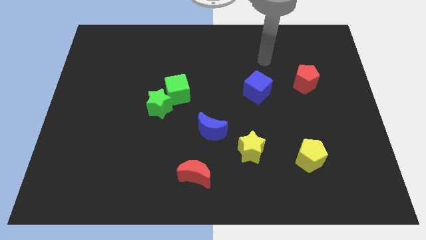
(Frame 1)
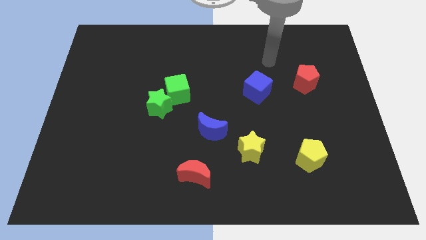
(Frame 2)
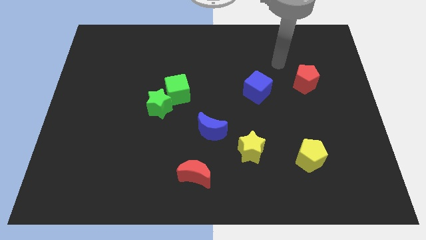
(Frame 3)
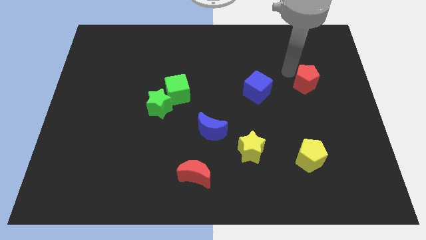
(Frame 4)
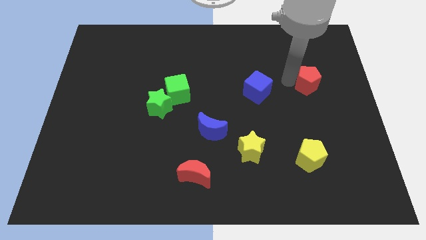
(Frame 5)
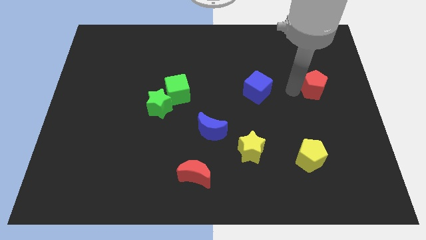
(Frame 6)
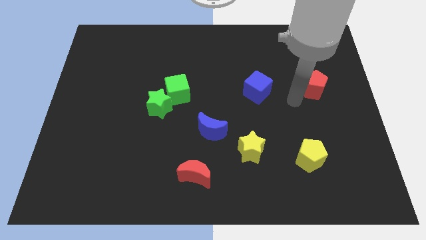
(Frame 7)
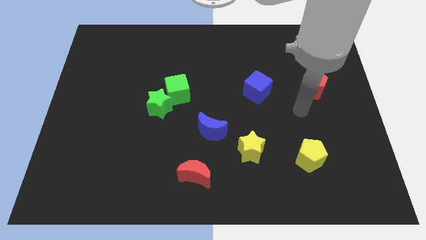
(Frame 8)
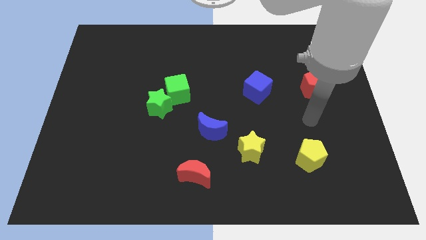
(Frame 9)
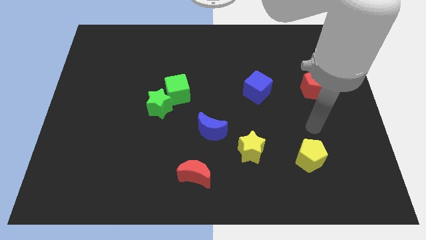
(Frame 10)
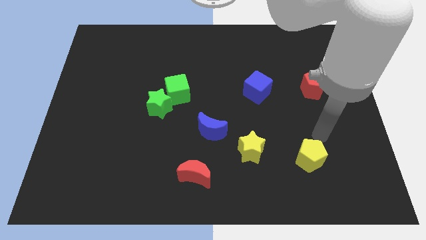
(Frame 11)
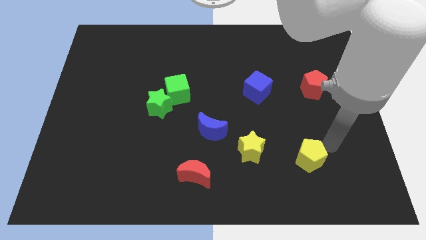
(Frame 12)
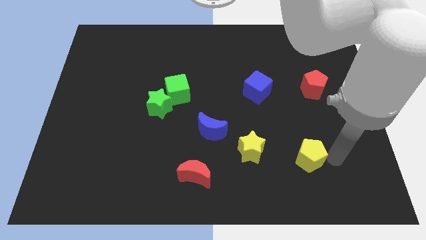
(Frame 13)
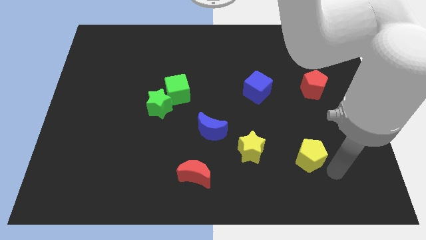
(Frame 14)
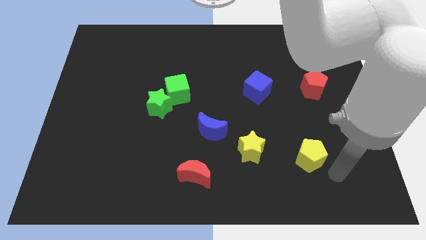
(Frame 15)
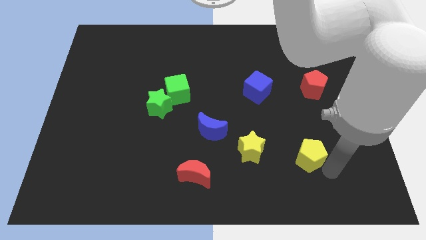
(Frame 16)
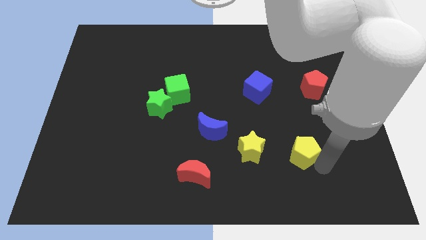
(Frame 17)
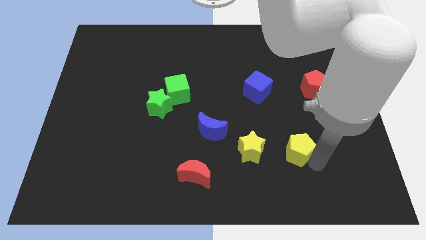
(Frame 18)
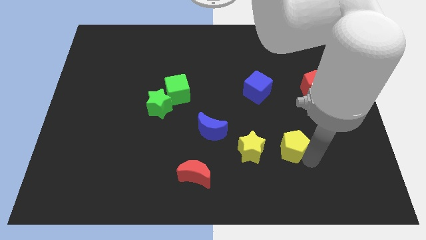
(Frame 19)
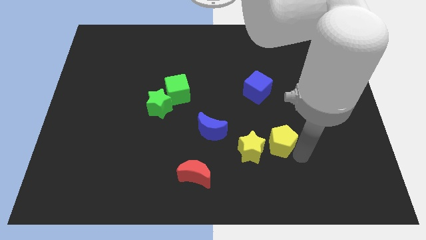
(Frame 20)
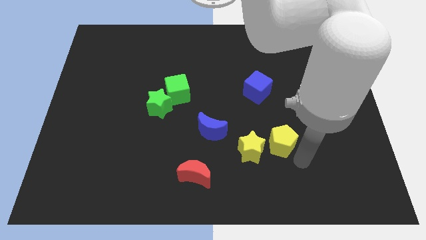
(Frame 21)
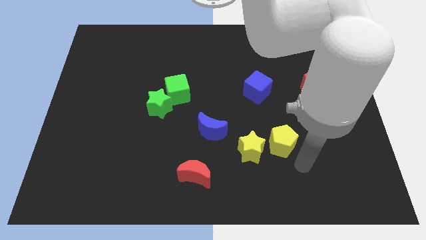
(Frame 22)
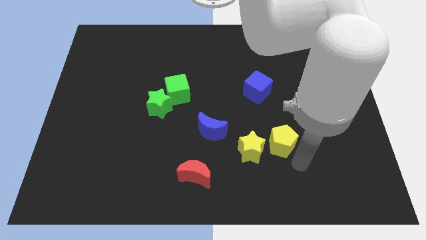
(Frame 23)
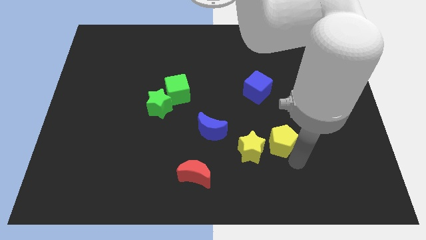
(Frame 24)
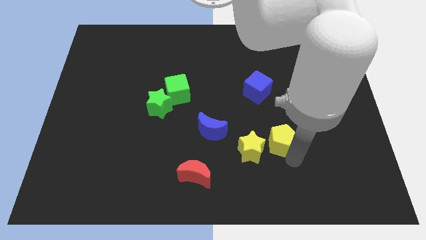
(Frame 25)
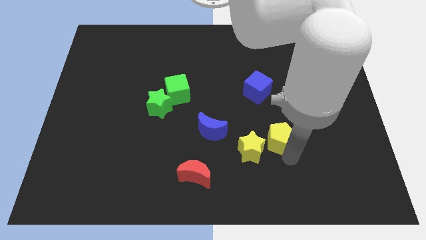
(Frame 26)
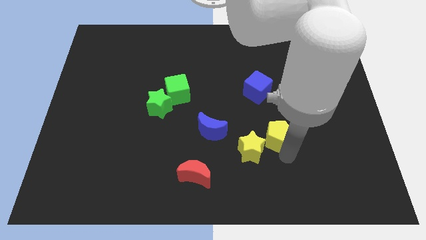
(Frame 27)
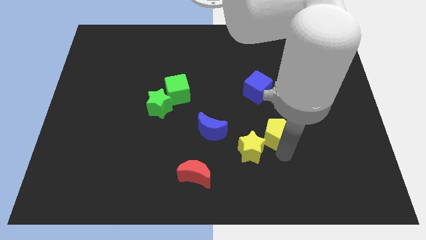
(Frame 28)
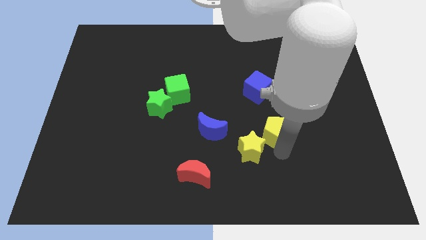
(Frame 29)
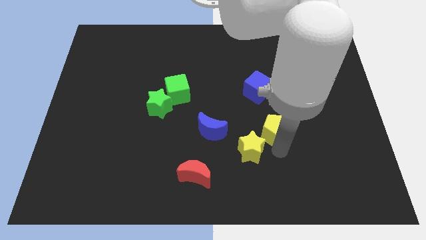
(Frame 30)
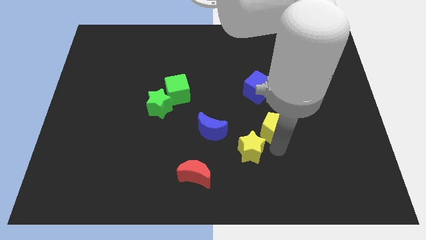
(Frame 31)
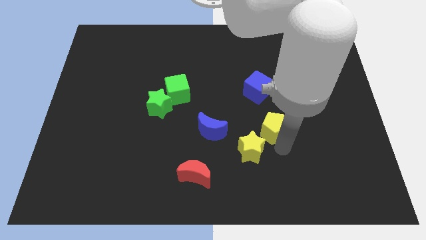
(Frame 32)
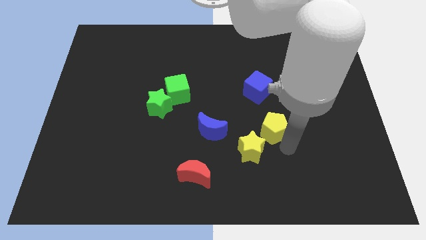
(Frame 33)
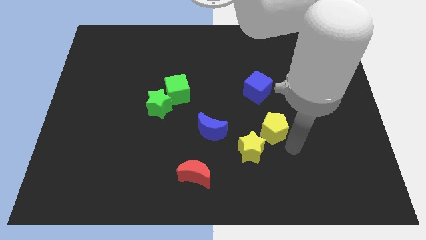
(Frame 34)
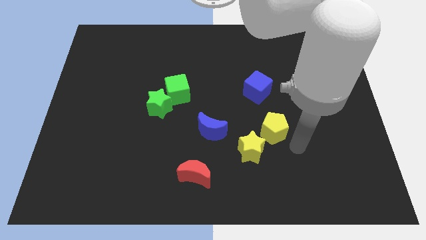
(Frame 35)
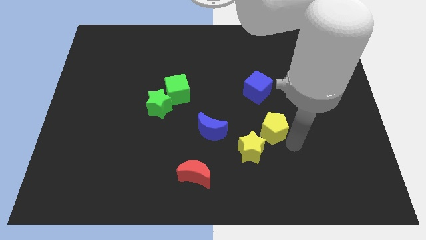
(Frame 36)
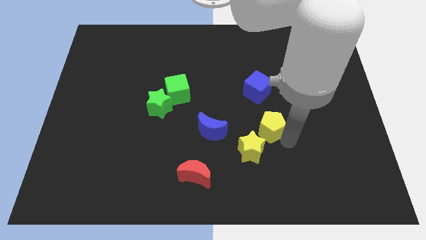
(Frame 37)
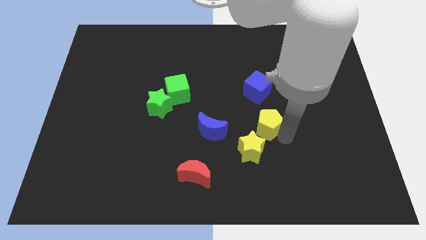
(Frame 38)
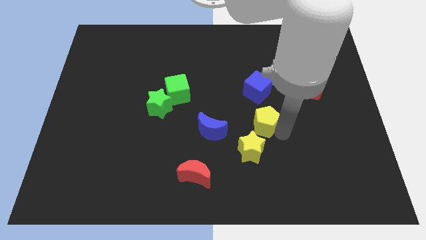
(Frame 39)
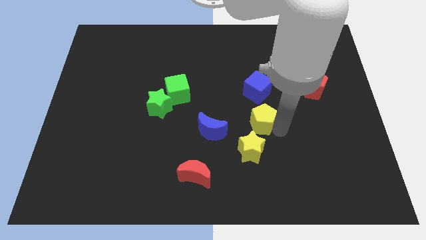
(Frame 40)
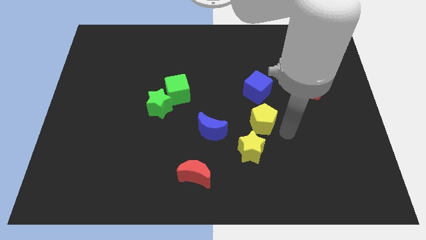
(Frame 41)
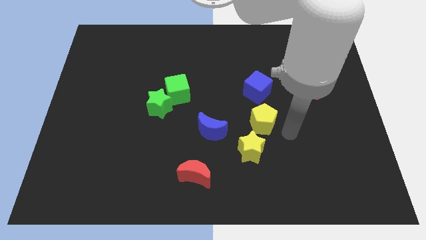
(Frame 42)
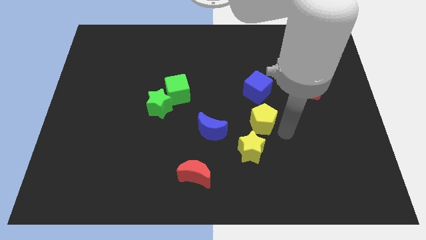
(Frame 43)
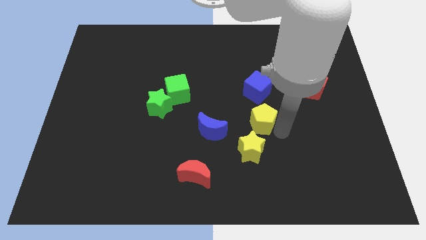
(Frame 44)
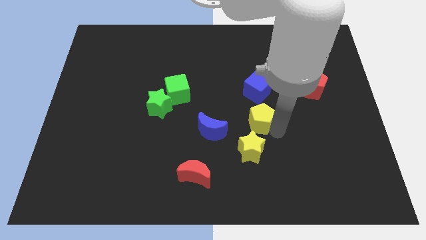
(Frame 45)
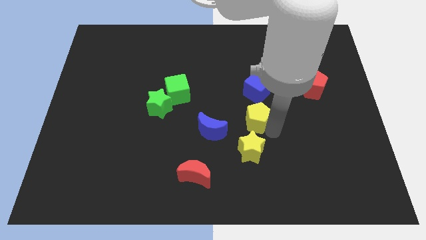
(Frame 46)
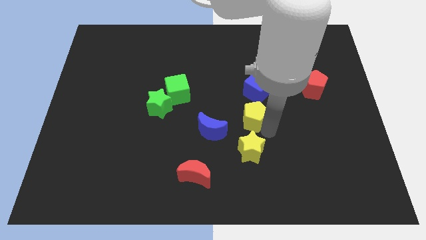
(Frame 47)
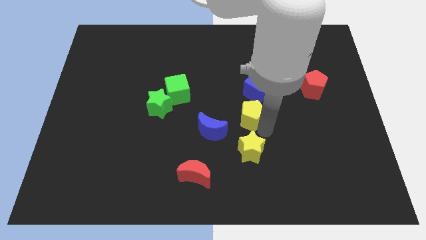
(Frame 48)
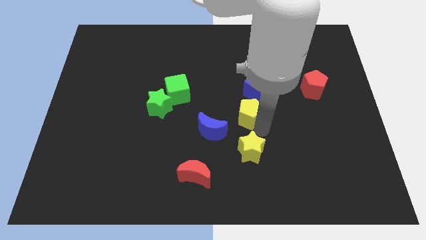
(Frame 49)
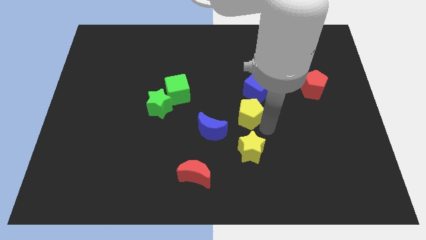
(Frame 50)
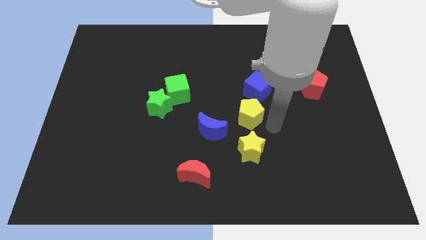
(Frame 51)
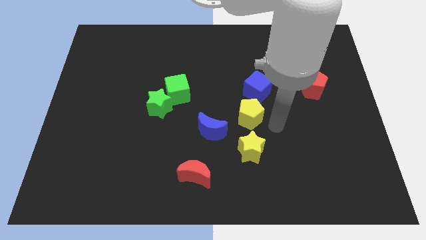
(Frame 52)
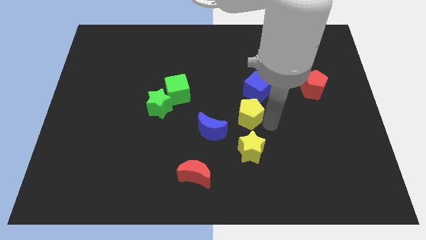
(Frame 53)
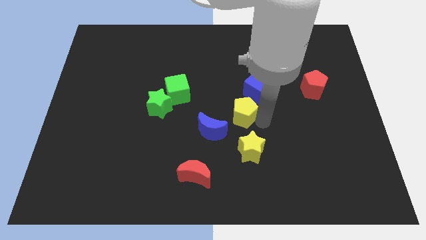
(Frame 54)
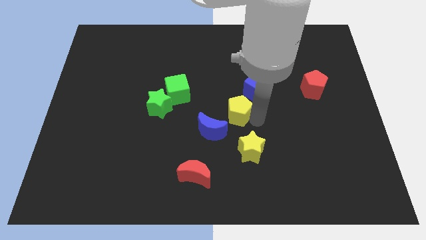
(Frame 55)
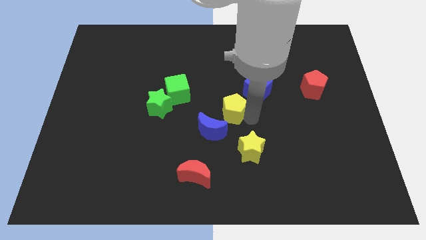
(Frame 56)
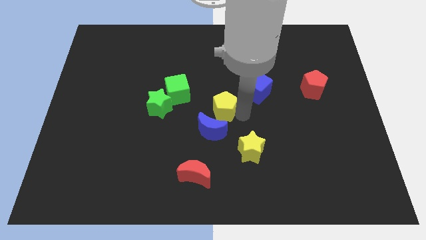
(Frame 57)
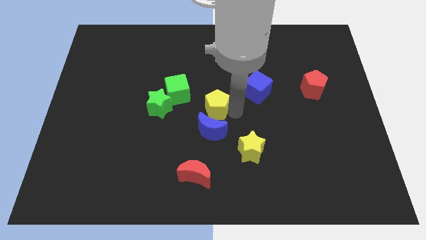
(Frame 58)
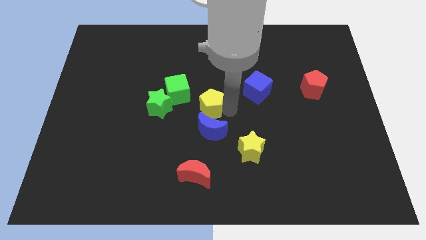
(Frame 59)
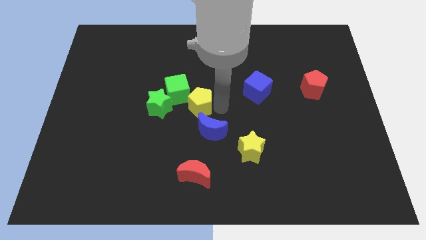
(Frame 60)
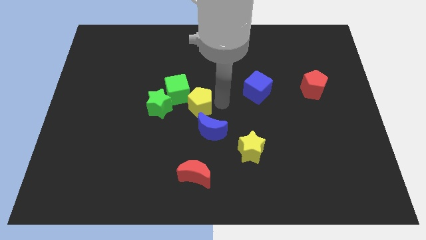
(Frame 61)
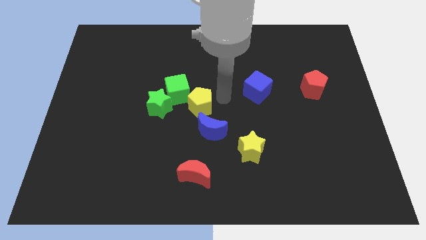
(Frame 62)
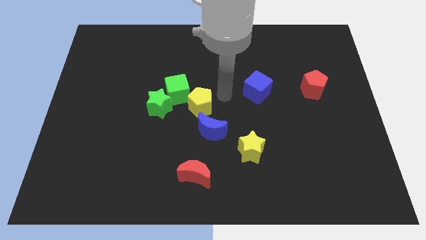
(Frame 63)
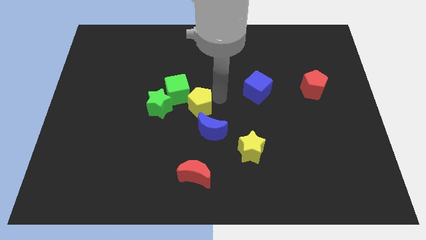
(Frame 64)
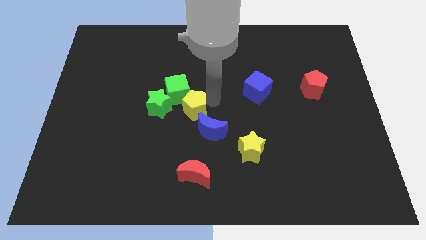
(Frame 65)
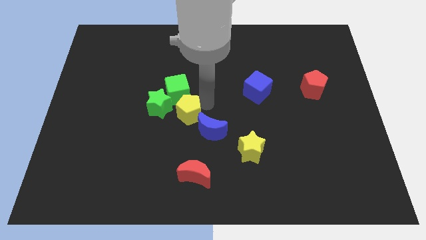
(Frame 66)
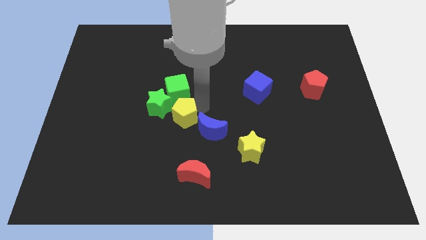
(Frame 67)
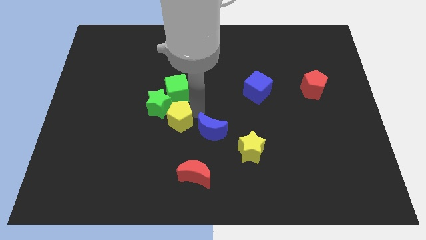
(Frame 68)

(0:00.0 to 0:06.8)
slide the yellow pentagon close to the green star
